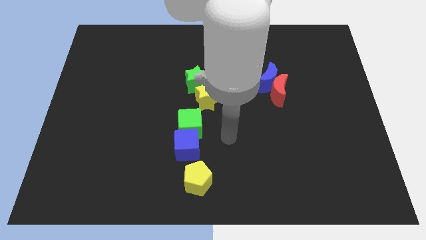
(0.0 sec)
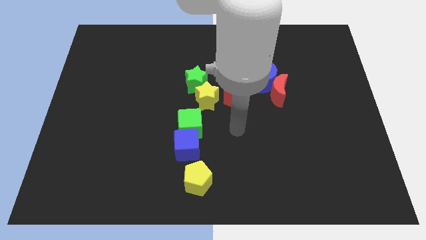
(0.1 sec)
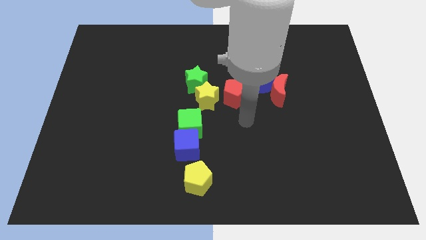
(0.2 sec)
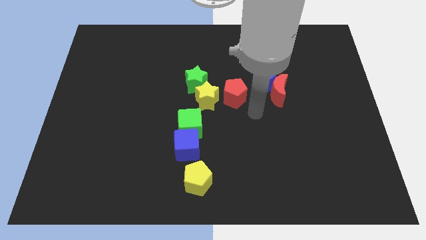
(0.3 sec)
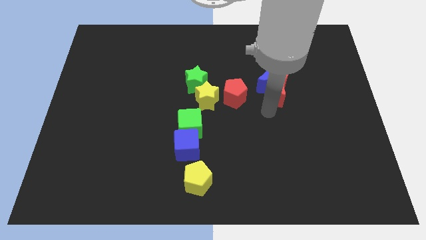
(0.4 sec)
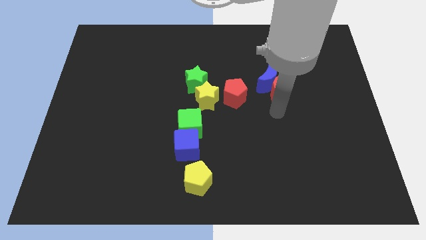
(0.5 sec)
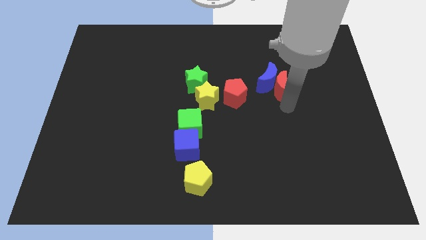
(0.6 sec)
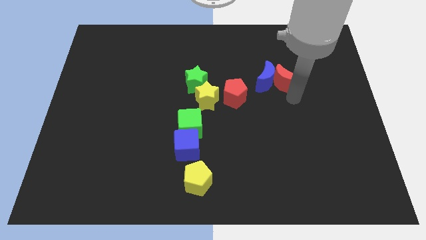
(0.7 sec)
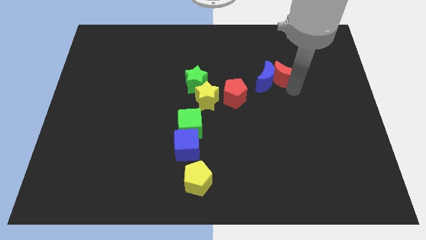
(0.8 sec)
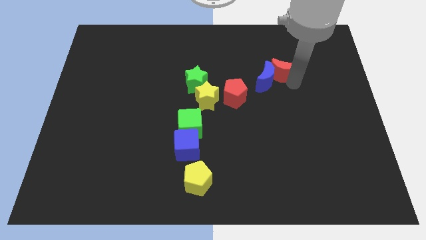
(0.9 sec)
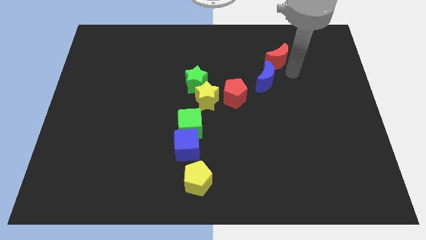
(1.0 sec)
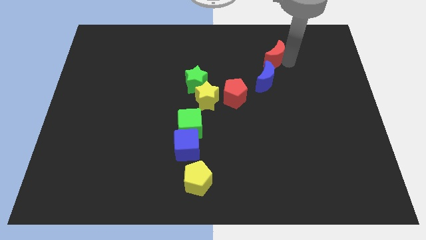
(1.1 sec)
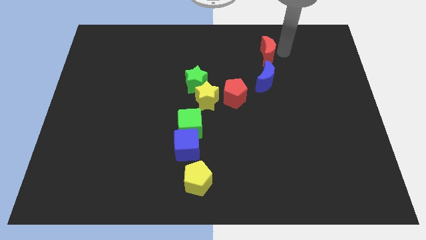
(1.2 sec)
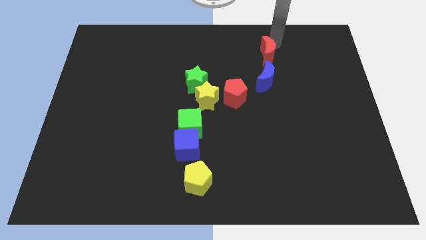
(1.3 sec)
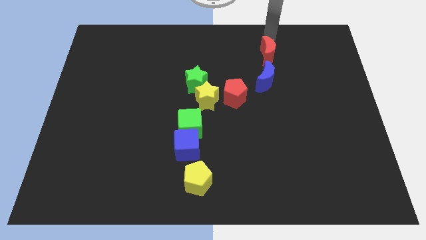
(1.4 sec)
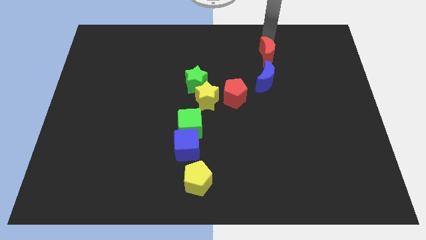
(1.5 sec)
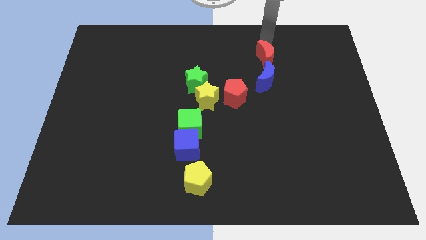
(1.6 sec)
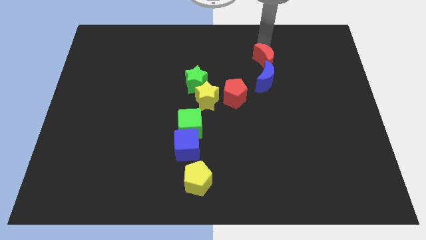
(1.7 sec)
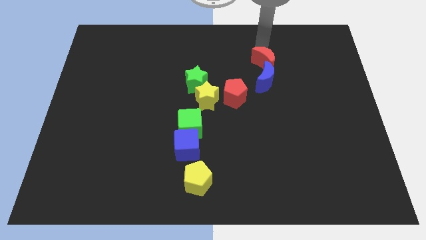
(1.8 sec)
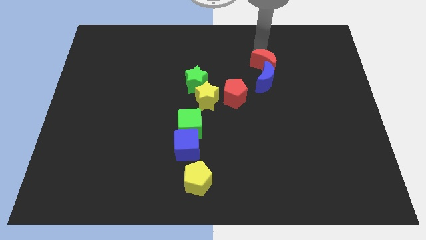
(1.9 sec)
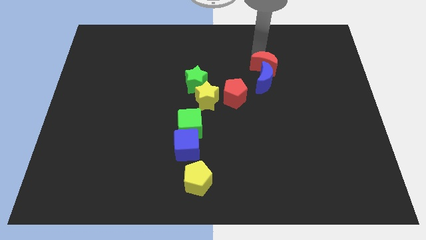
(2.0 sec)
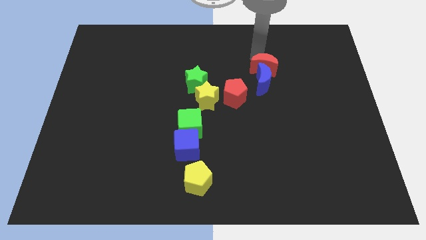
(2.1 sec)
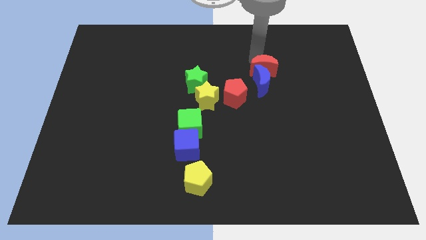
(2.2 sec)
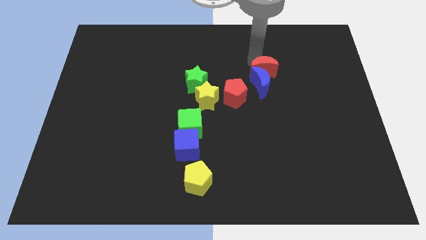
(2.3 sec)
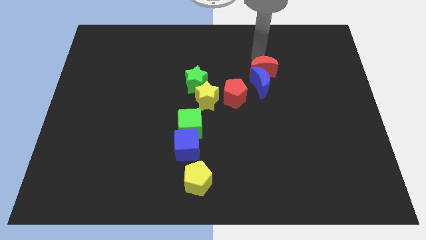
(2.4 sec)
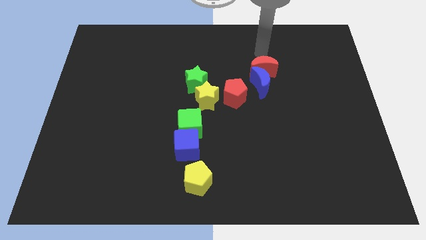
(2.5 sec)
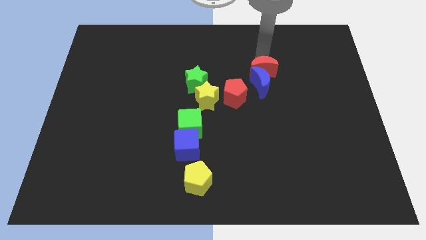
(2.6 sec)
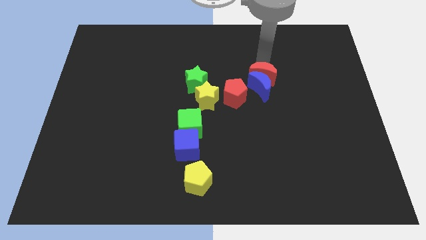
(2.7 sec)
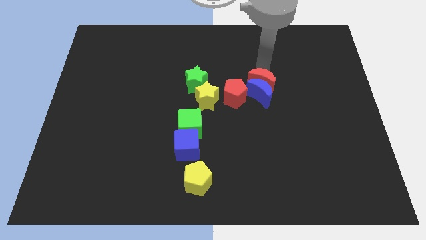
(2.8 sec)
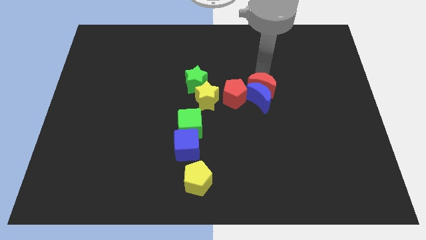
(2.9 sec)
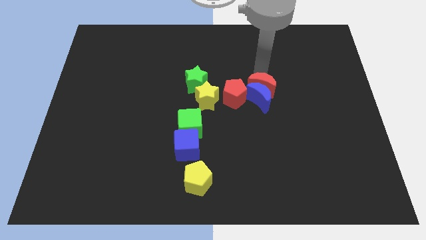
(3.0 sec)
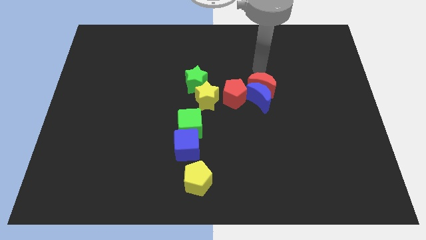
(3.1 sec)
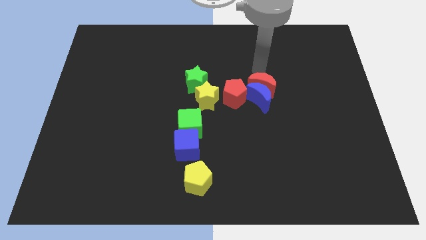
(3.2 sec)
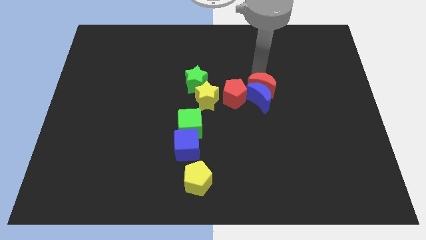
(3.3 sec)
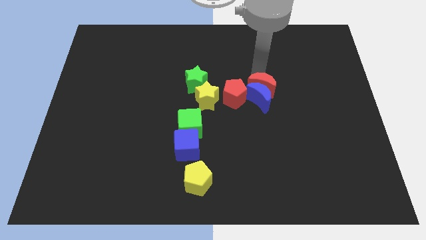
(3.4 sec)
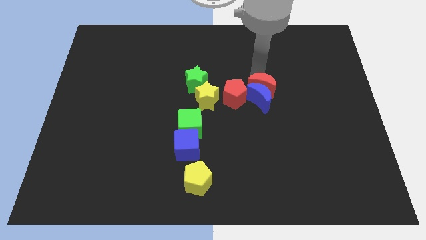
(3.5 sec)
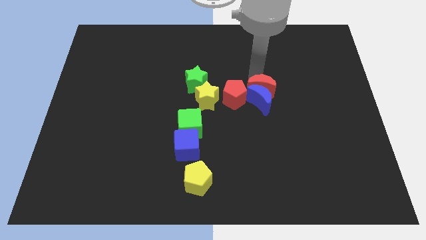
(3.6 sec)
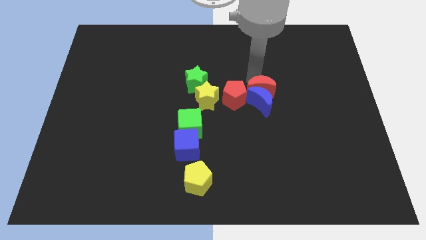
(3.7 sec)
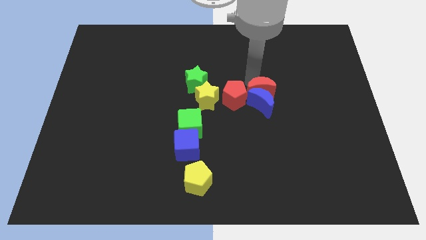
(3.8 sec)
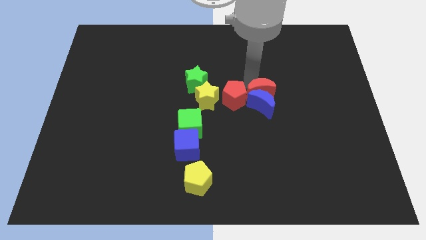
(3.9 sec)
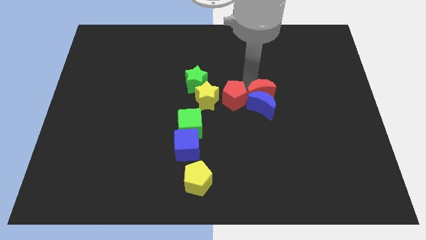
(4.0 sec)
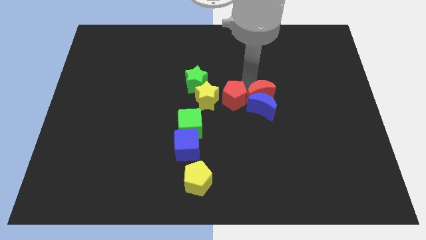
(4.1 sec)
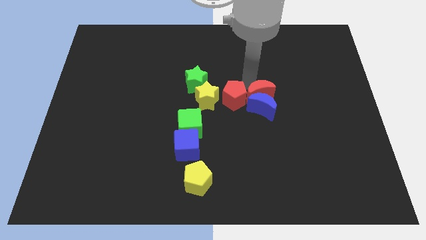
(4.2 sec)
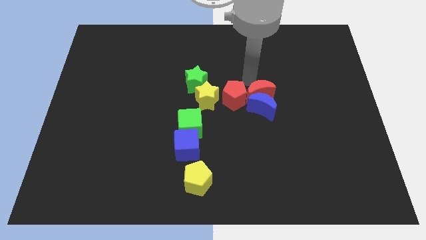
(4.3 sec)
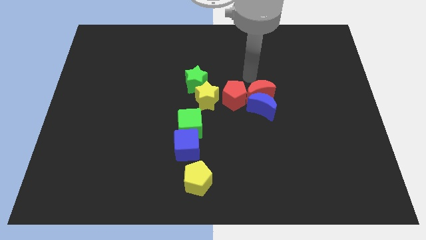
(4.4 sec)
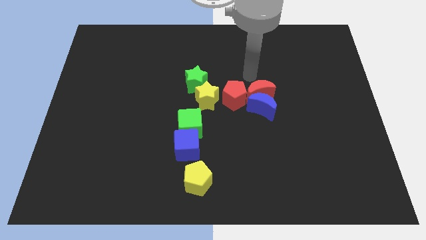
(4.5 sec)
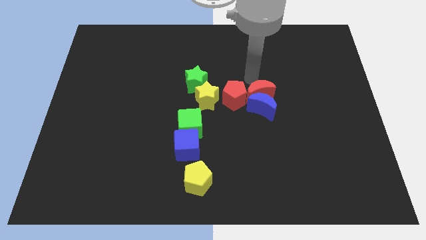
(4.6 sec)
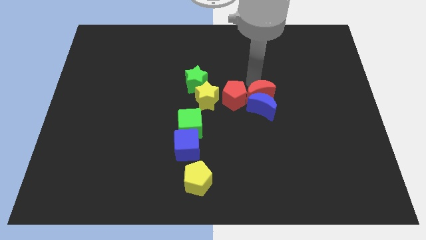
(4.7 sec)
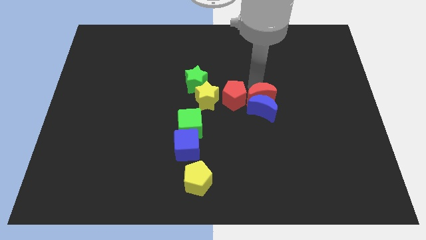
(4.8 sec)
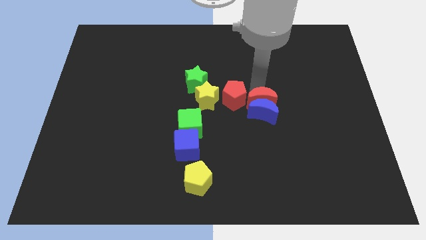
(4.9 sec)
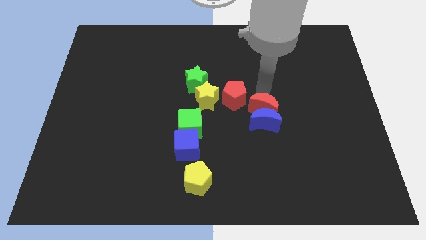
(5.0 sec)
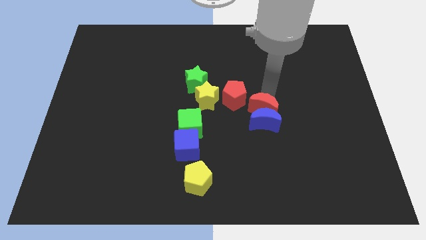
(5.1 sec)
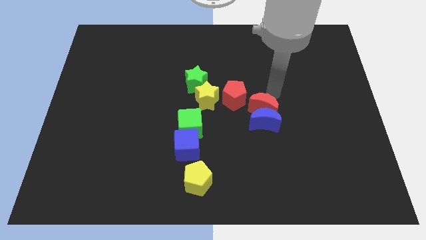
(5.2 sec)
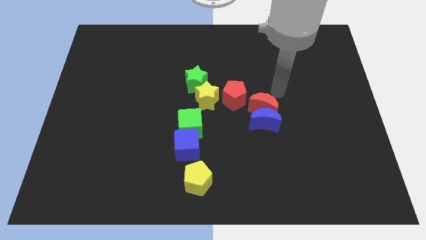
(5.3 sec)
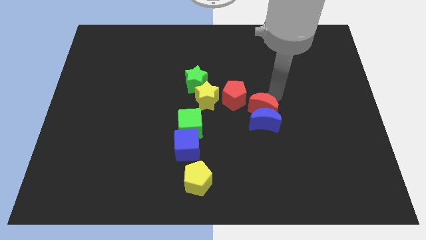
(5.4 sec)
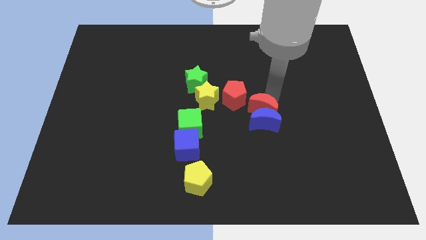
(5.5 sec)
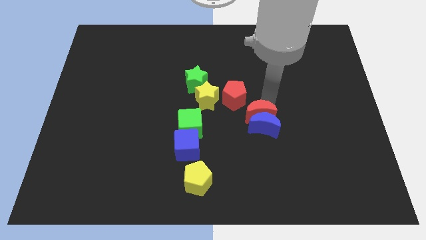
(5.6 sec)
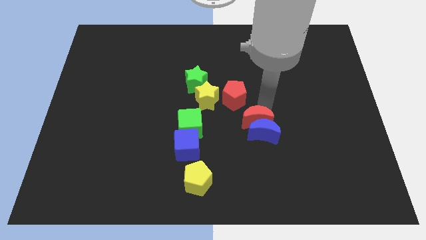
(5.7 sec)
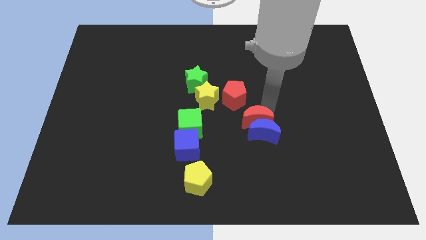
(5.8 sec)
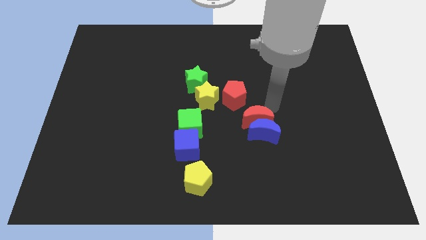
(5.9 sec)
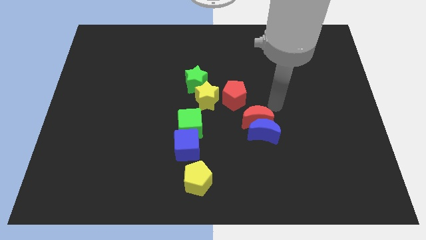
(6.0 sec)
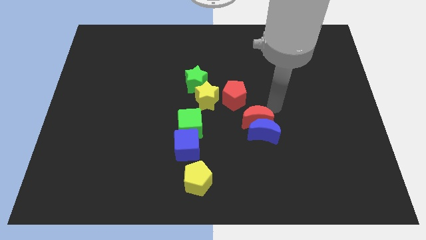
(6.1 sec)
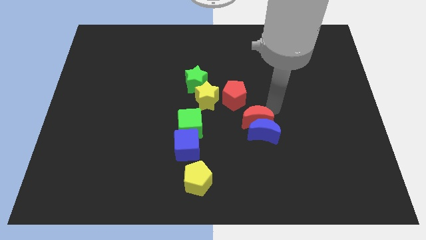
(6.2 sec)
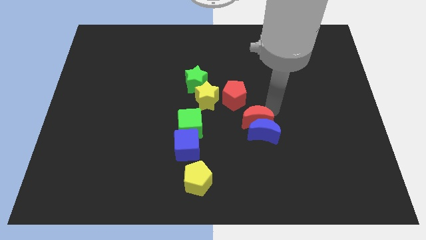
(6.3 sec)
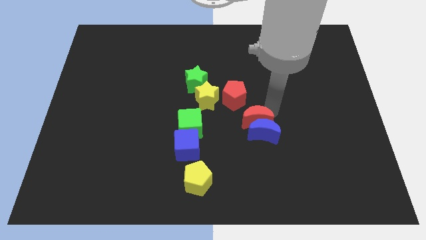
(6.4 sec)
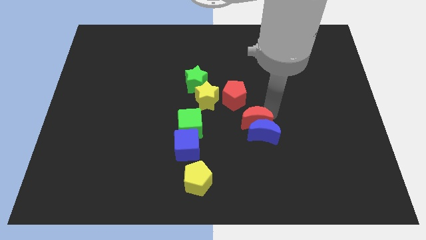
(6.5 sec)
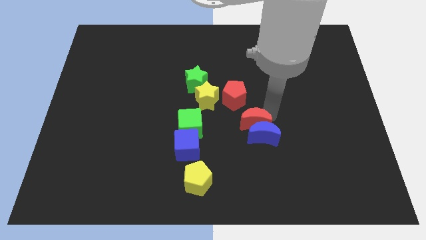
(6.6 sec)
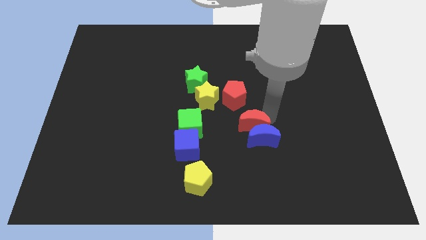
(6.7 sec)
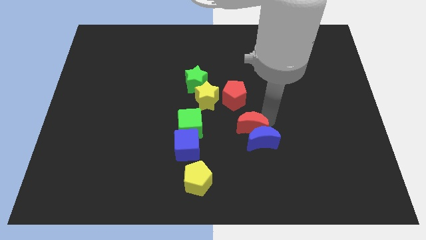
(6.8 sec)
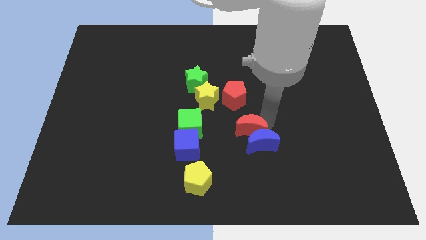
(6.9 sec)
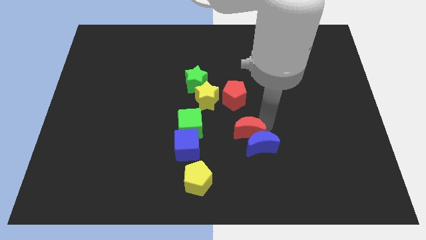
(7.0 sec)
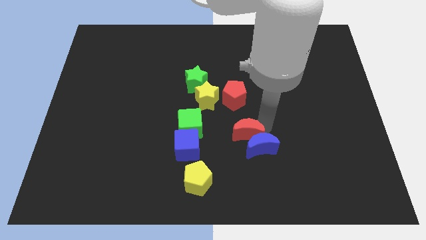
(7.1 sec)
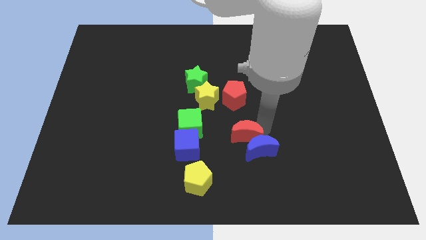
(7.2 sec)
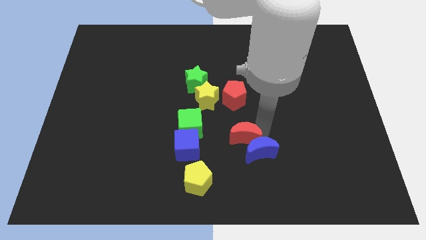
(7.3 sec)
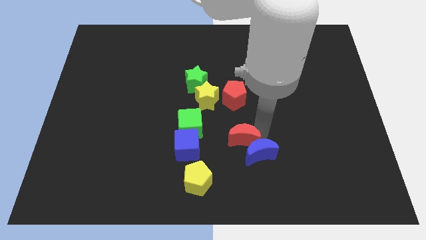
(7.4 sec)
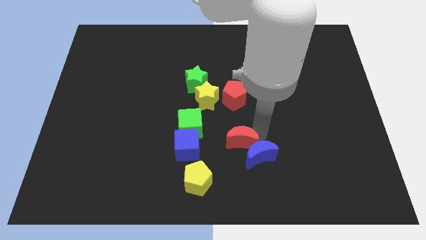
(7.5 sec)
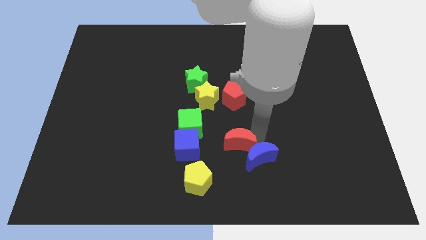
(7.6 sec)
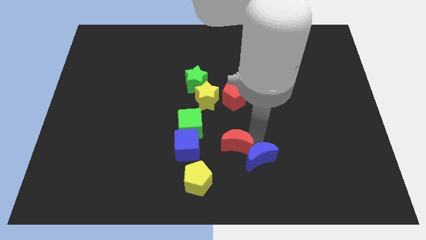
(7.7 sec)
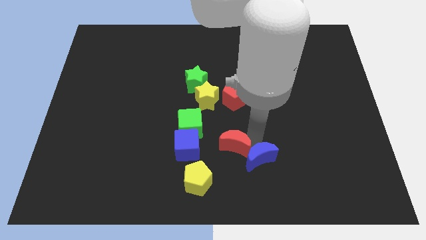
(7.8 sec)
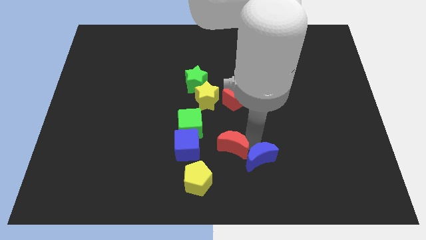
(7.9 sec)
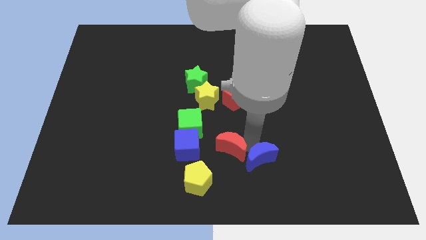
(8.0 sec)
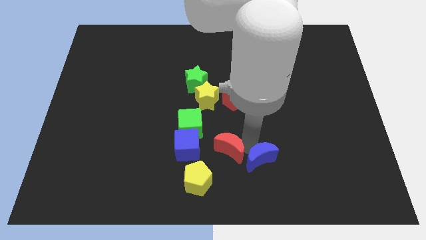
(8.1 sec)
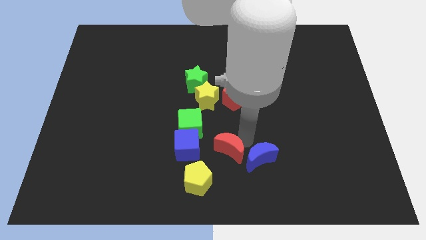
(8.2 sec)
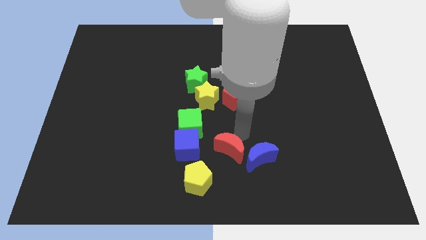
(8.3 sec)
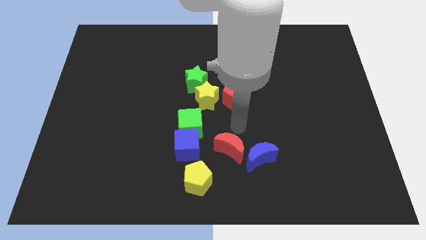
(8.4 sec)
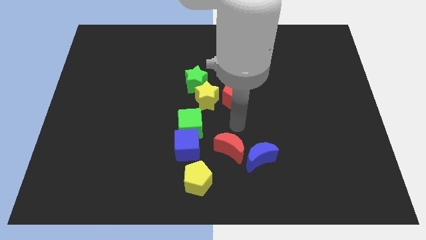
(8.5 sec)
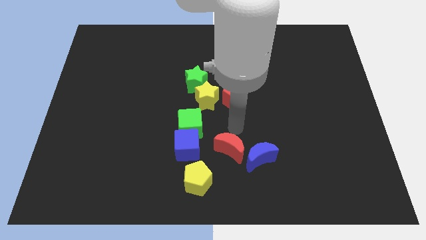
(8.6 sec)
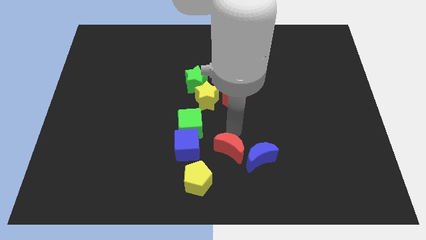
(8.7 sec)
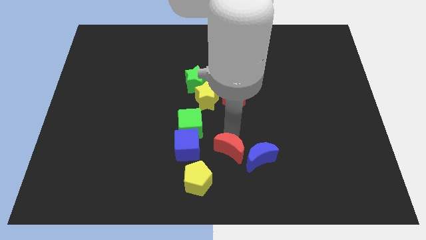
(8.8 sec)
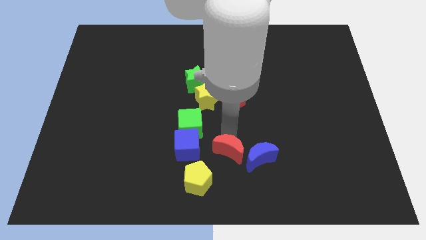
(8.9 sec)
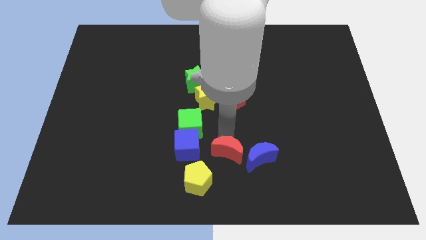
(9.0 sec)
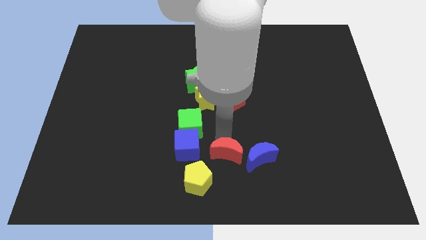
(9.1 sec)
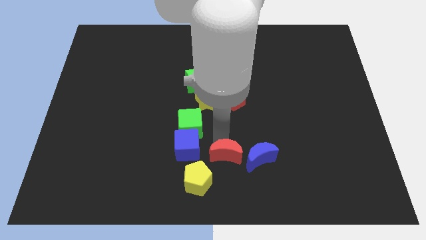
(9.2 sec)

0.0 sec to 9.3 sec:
slide the red moon to the bottom
